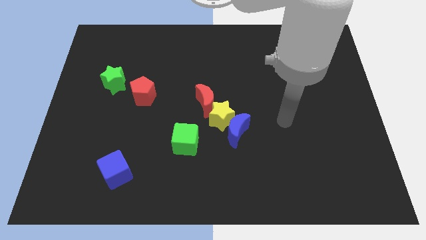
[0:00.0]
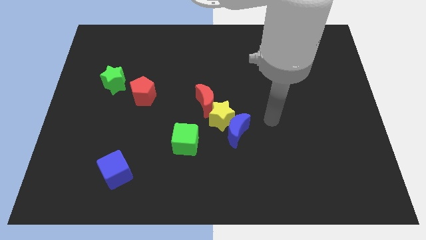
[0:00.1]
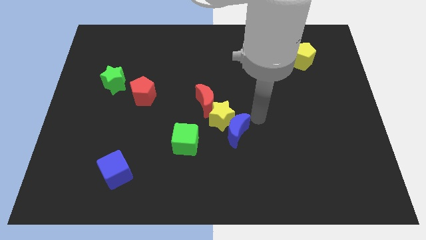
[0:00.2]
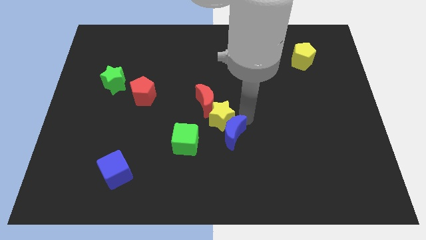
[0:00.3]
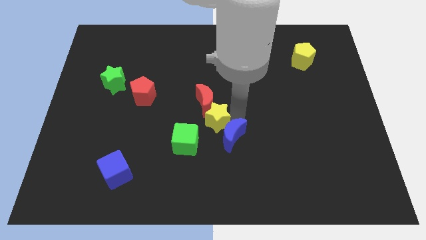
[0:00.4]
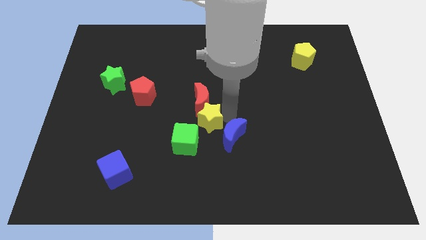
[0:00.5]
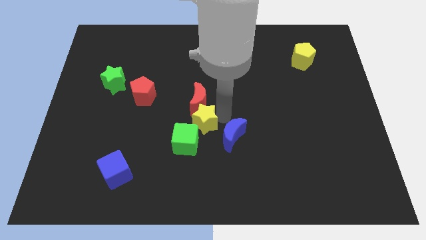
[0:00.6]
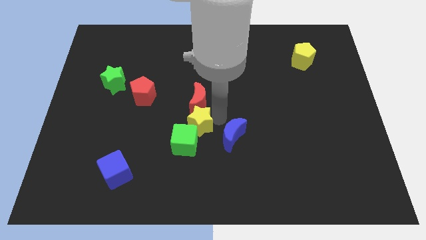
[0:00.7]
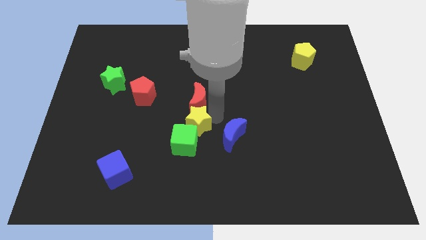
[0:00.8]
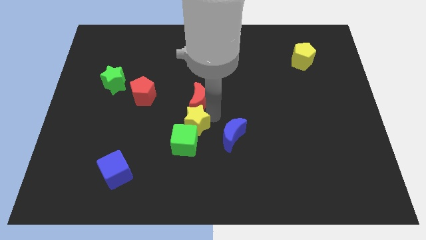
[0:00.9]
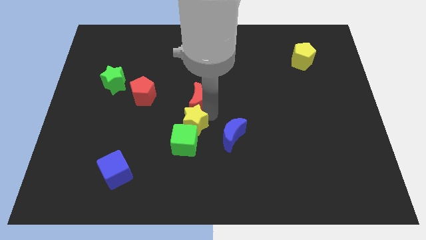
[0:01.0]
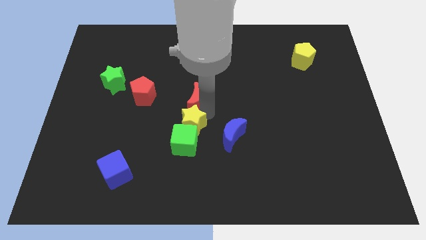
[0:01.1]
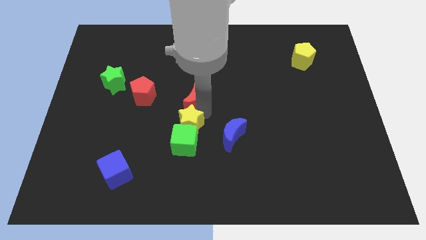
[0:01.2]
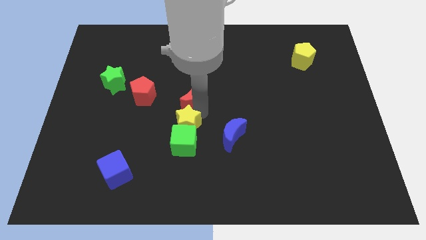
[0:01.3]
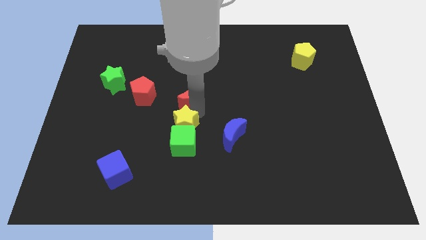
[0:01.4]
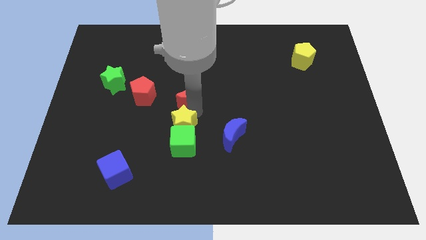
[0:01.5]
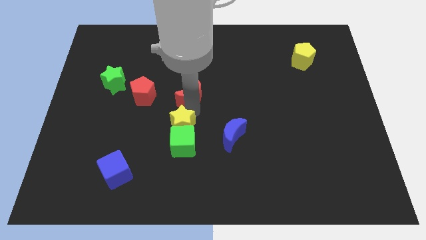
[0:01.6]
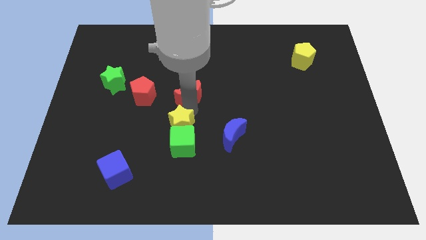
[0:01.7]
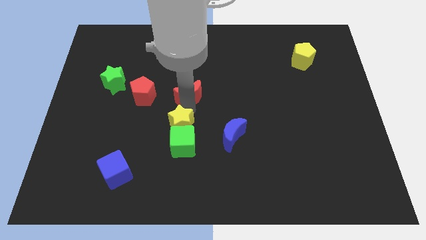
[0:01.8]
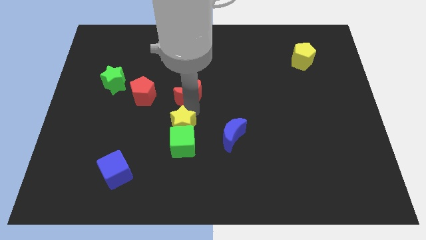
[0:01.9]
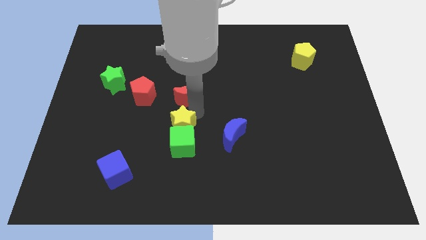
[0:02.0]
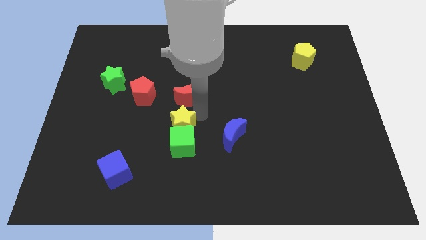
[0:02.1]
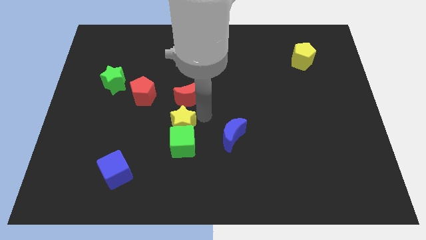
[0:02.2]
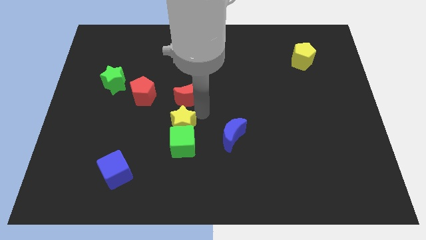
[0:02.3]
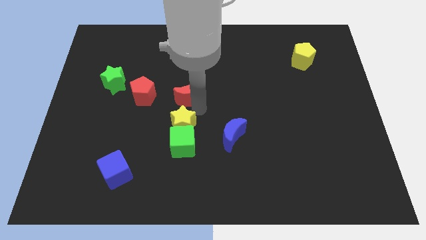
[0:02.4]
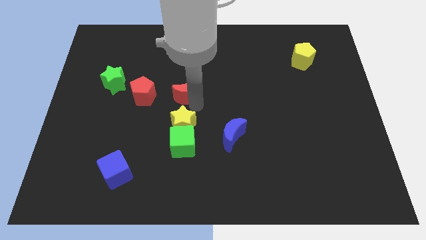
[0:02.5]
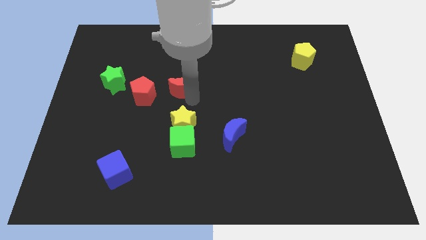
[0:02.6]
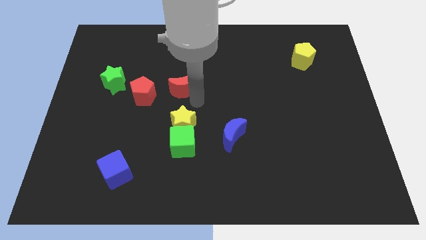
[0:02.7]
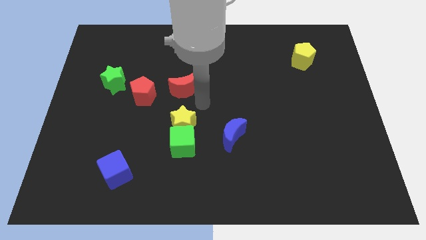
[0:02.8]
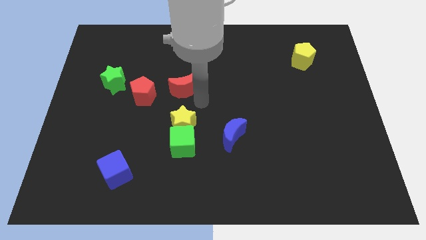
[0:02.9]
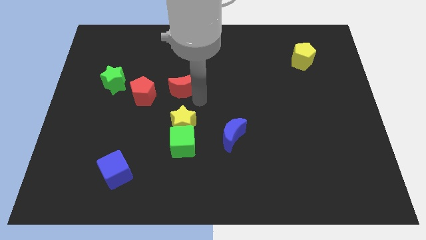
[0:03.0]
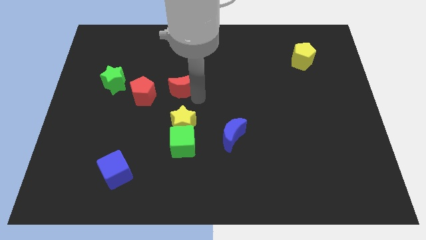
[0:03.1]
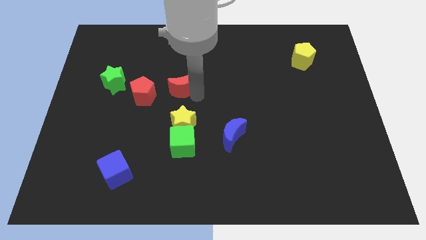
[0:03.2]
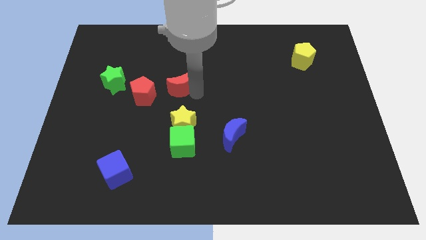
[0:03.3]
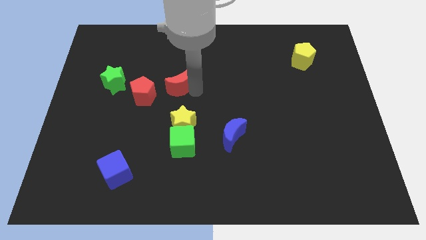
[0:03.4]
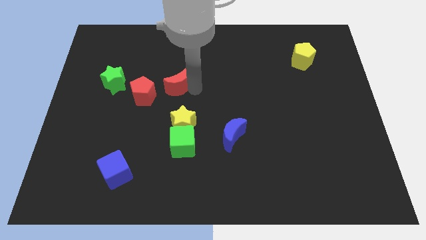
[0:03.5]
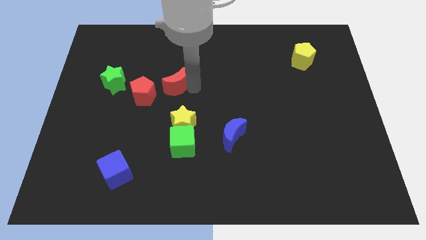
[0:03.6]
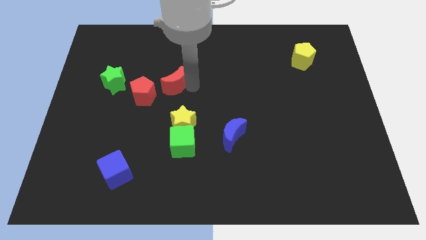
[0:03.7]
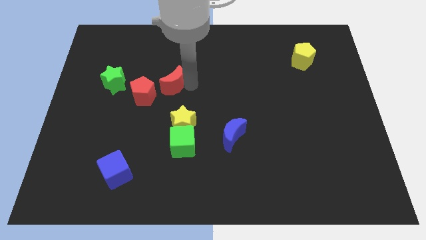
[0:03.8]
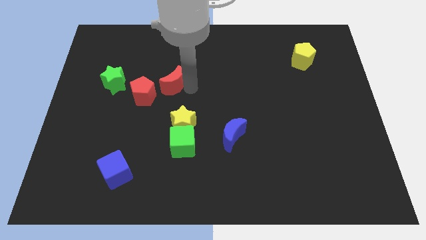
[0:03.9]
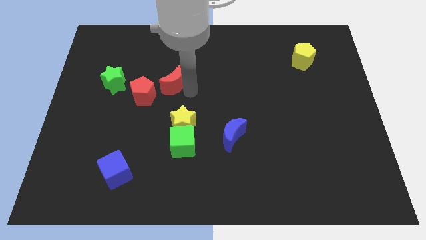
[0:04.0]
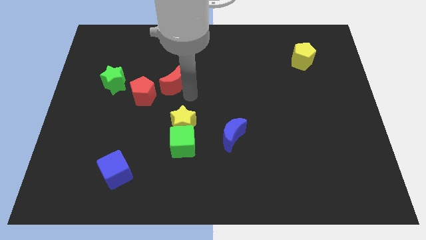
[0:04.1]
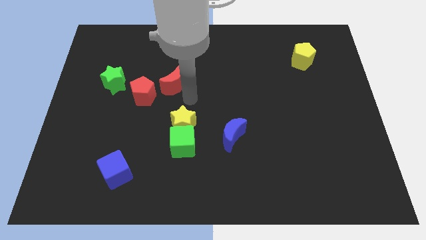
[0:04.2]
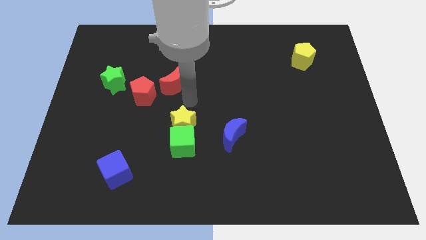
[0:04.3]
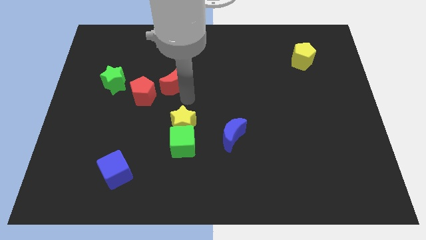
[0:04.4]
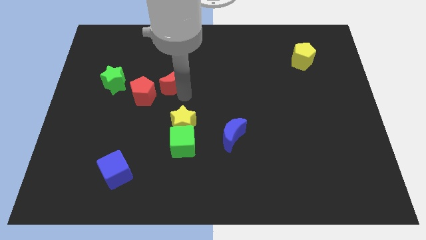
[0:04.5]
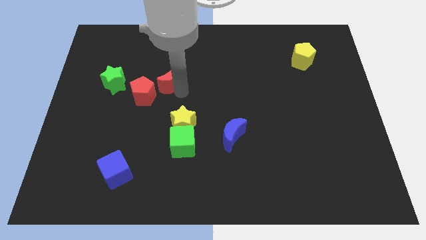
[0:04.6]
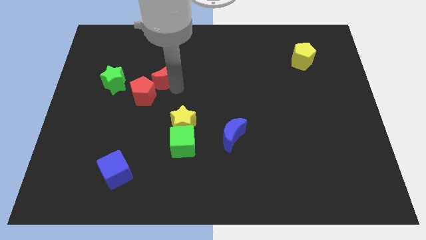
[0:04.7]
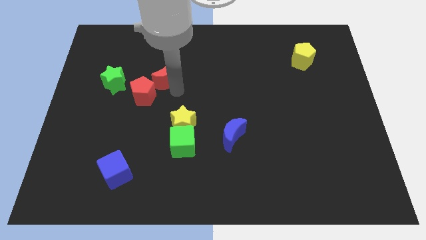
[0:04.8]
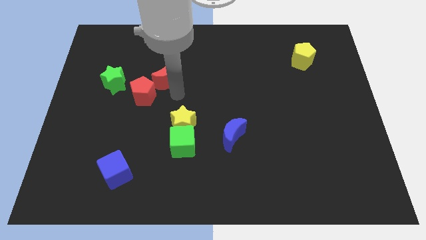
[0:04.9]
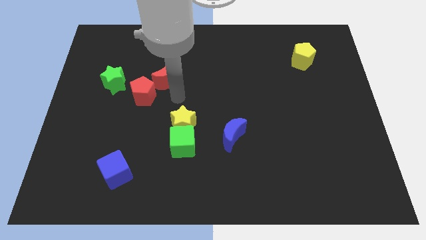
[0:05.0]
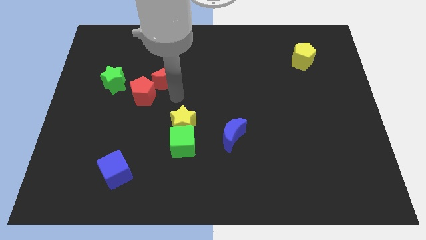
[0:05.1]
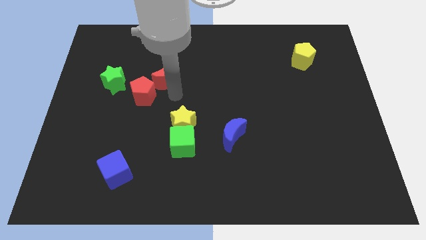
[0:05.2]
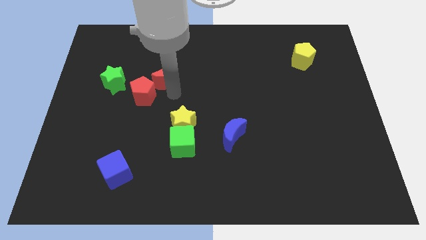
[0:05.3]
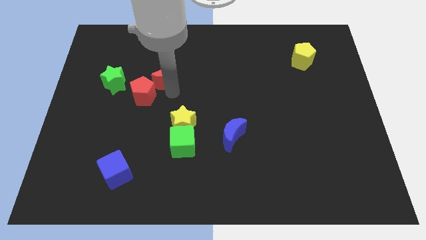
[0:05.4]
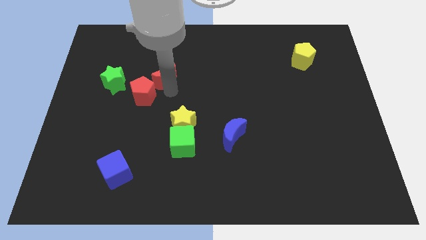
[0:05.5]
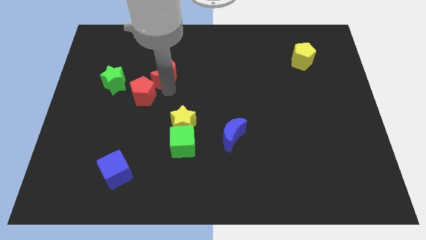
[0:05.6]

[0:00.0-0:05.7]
put the red moon to the top of the red pentagon

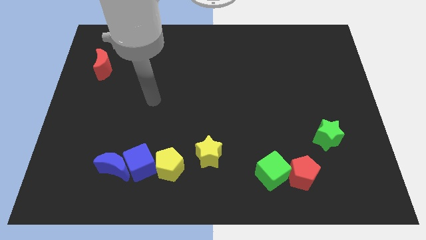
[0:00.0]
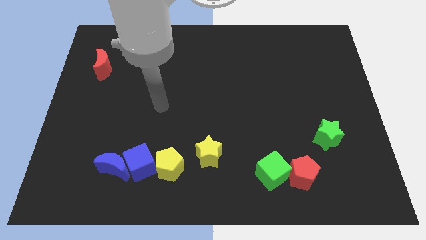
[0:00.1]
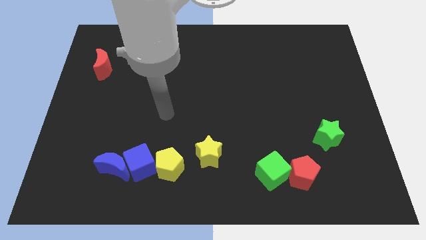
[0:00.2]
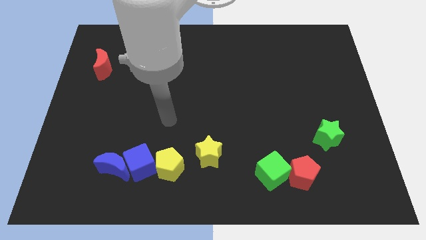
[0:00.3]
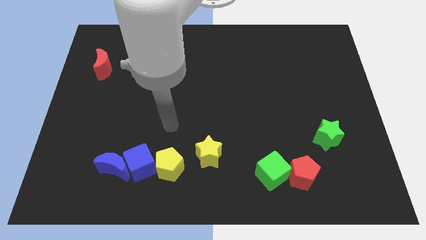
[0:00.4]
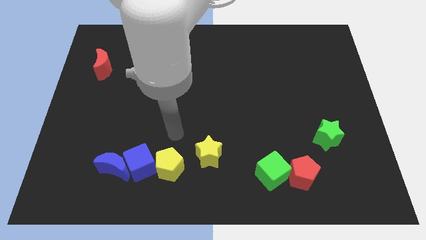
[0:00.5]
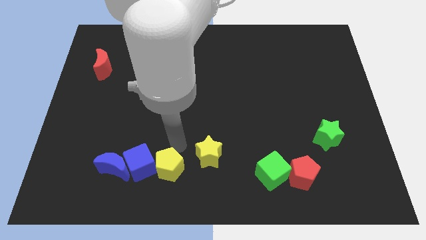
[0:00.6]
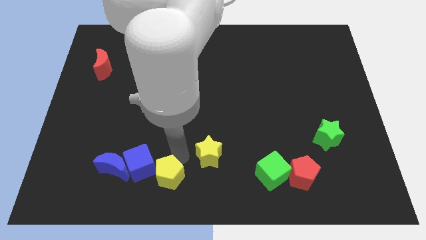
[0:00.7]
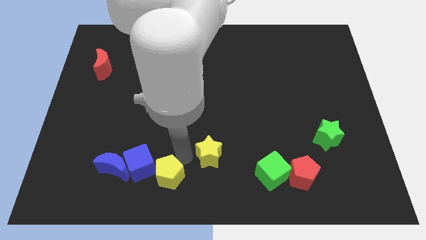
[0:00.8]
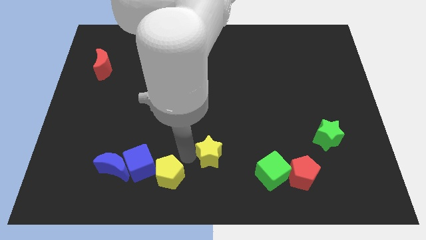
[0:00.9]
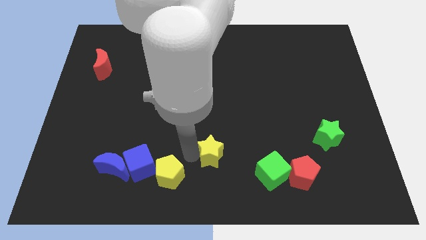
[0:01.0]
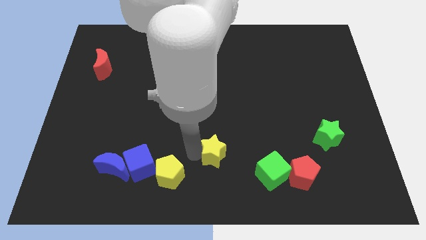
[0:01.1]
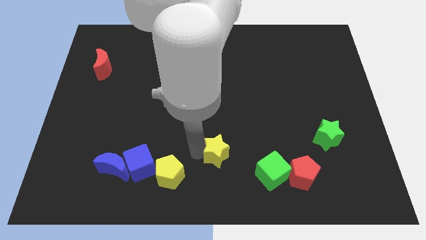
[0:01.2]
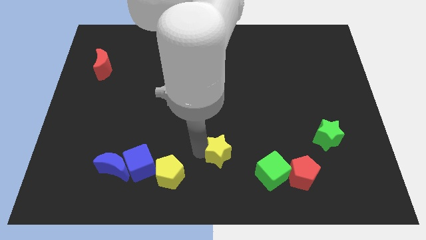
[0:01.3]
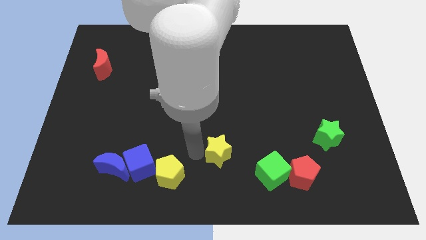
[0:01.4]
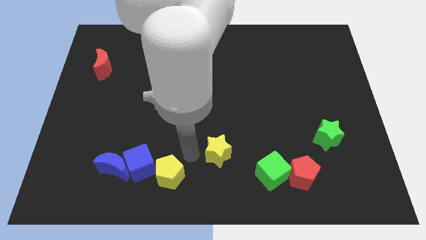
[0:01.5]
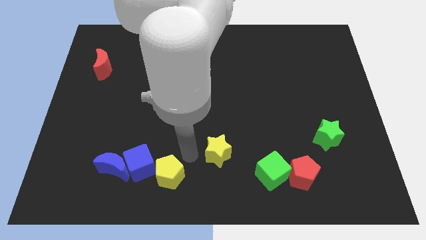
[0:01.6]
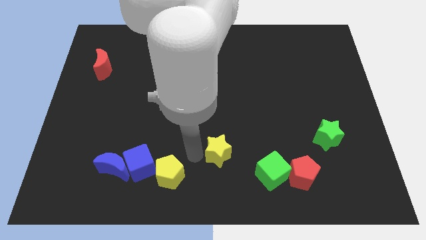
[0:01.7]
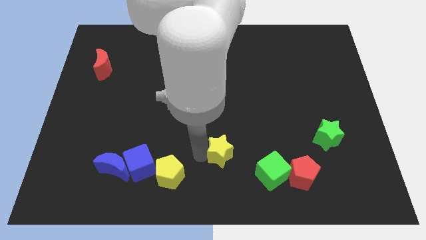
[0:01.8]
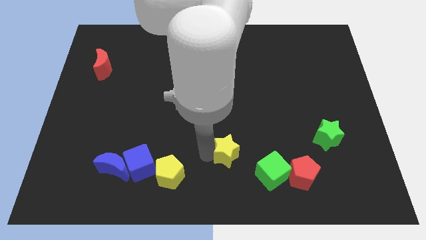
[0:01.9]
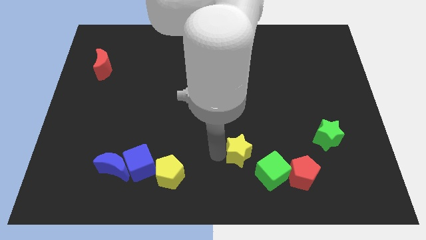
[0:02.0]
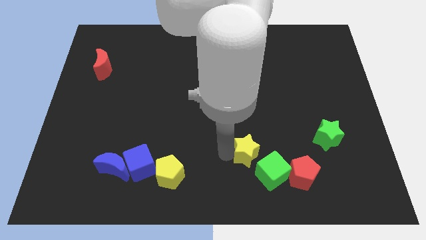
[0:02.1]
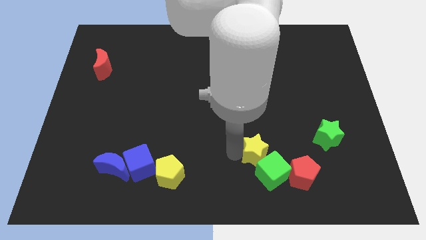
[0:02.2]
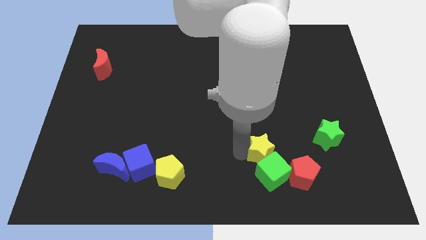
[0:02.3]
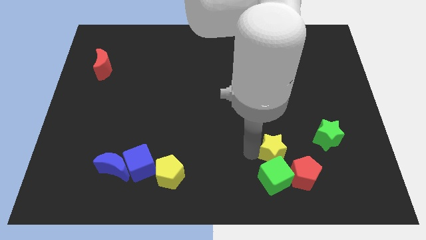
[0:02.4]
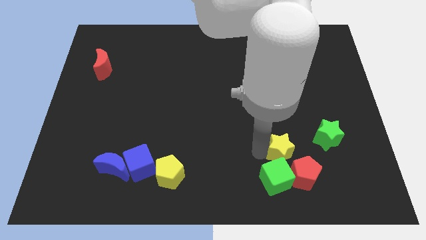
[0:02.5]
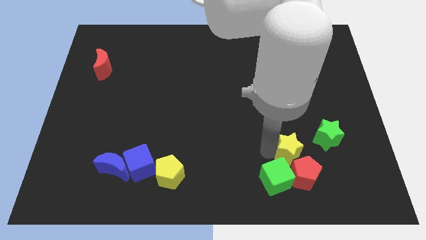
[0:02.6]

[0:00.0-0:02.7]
push the yellow star to the bottom left of the green star
